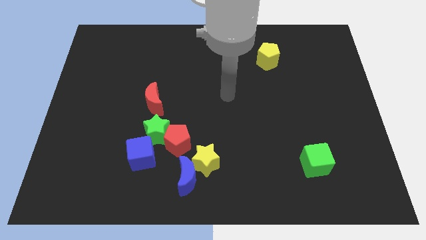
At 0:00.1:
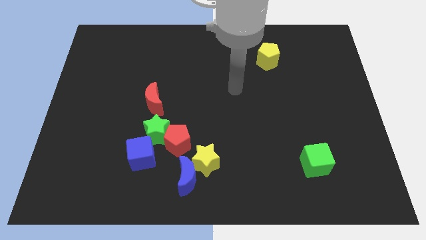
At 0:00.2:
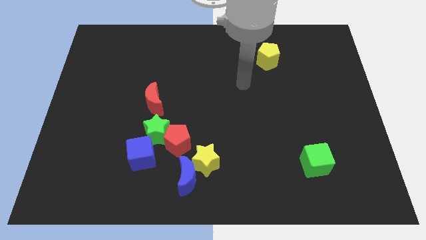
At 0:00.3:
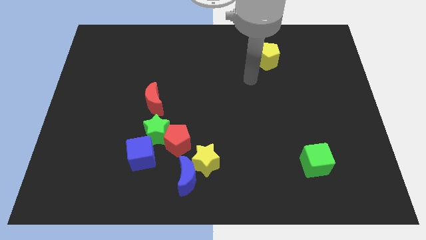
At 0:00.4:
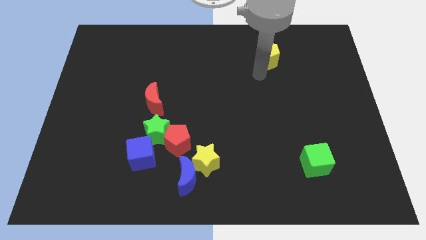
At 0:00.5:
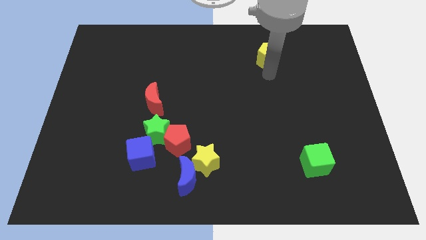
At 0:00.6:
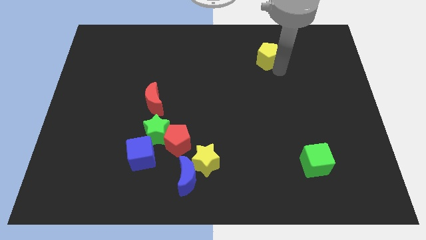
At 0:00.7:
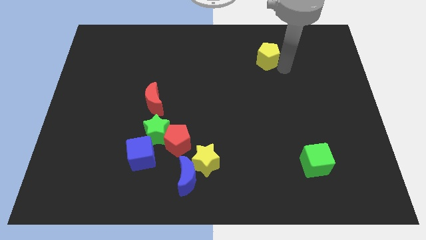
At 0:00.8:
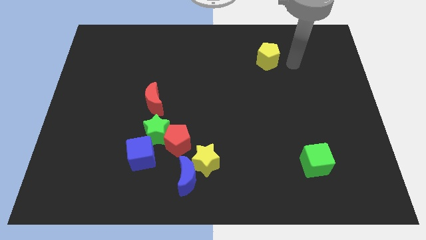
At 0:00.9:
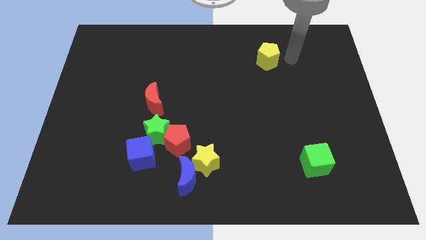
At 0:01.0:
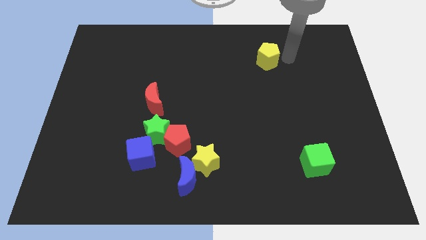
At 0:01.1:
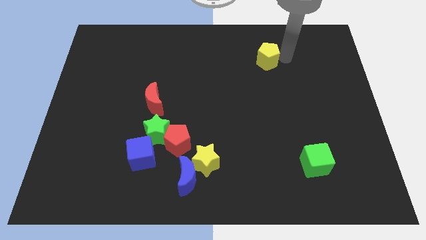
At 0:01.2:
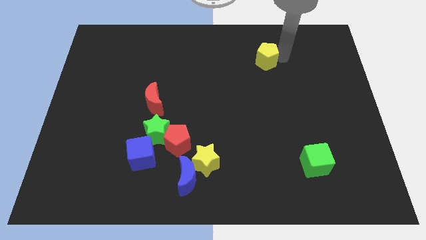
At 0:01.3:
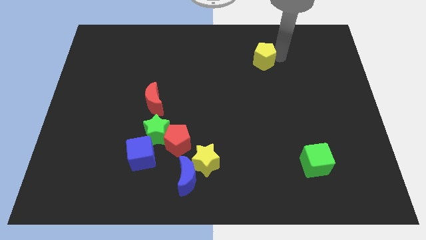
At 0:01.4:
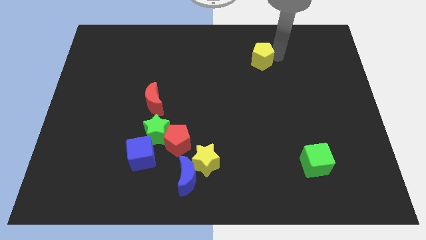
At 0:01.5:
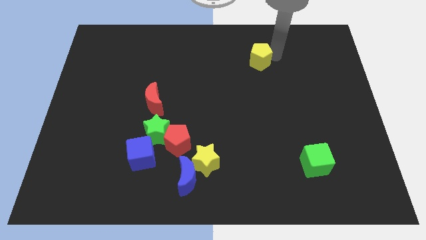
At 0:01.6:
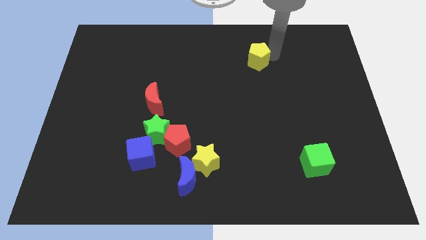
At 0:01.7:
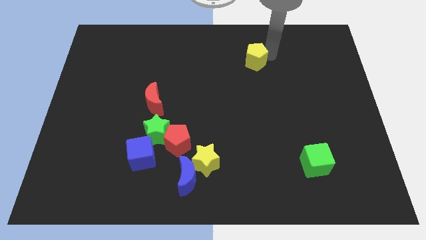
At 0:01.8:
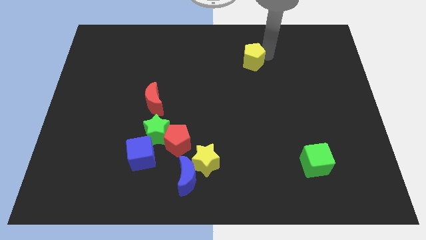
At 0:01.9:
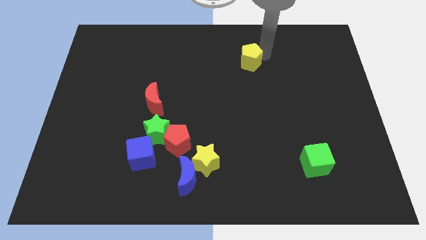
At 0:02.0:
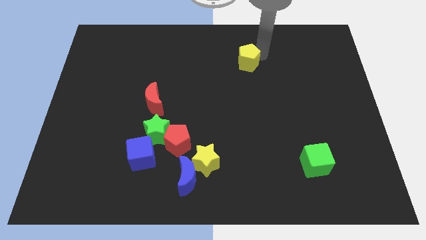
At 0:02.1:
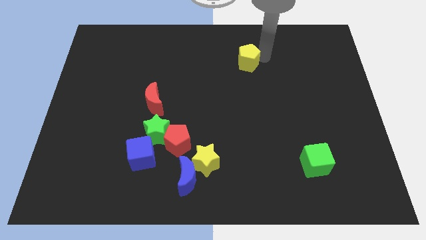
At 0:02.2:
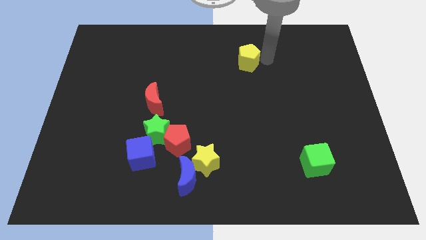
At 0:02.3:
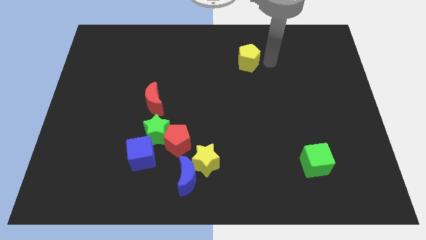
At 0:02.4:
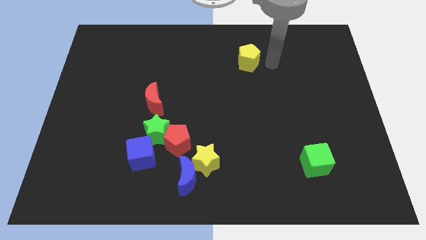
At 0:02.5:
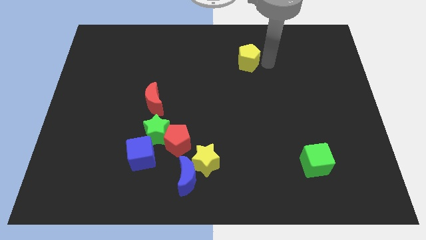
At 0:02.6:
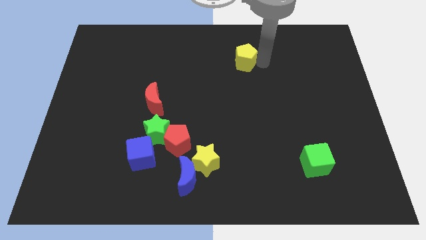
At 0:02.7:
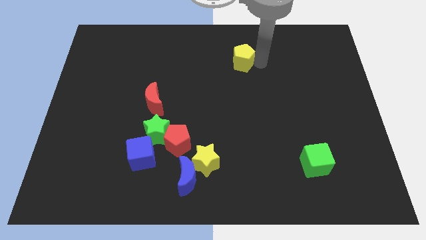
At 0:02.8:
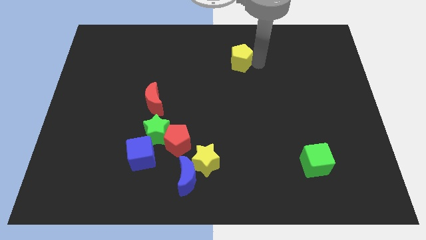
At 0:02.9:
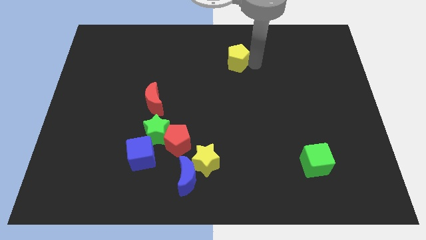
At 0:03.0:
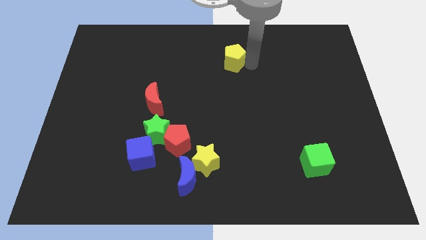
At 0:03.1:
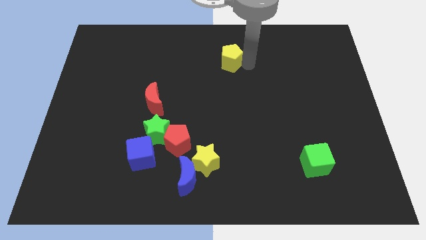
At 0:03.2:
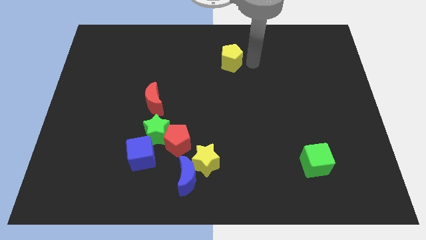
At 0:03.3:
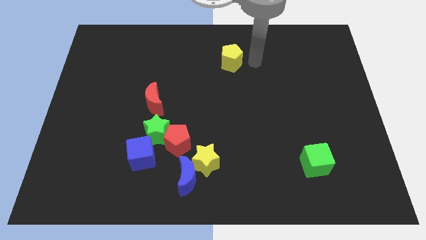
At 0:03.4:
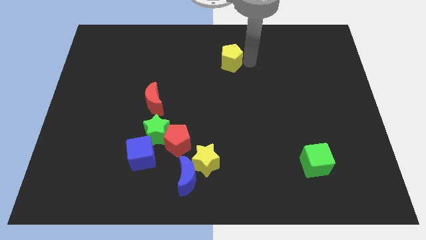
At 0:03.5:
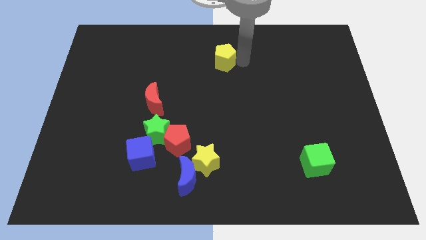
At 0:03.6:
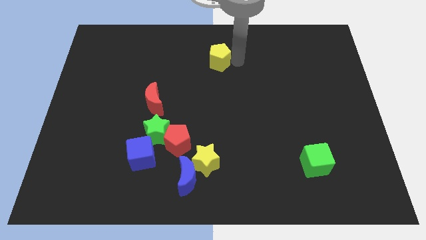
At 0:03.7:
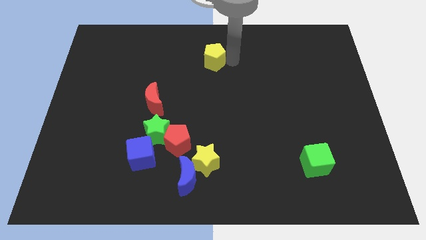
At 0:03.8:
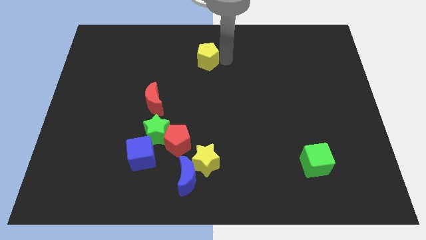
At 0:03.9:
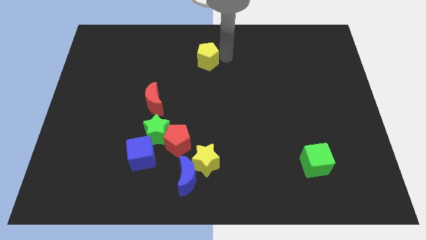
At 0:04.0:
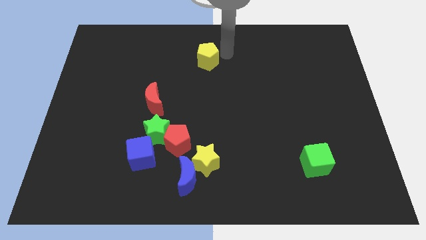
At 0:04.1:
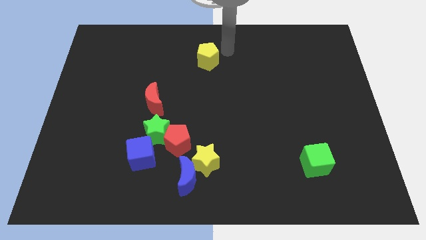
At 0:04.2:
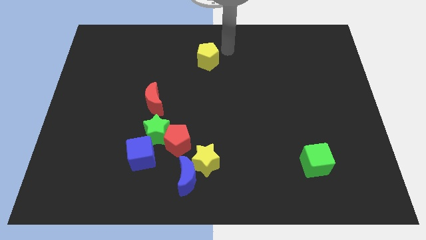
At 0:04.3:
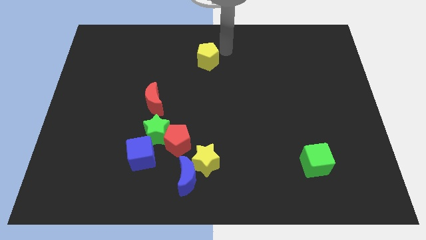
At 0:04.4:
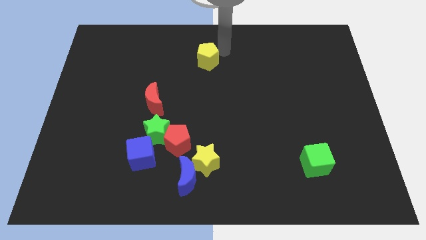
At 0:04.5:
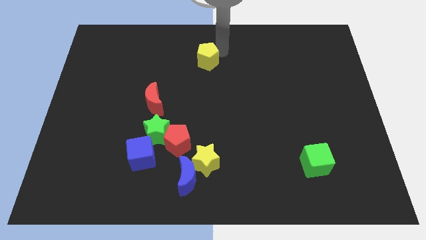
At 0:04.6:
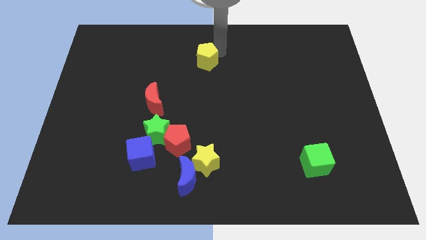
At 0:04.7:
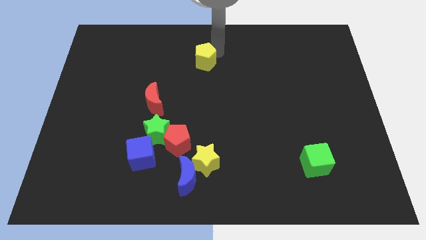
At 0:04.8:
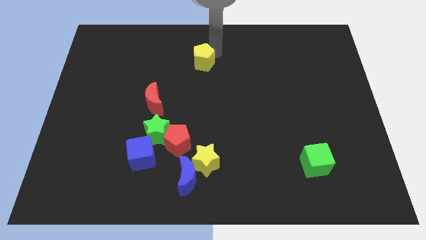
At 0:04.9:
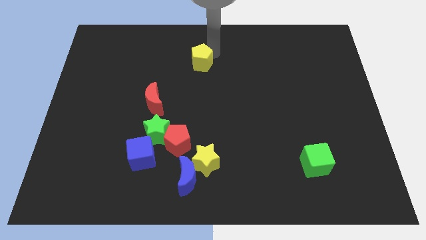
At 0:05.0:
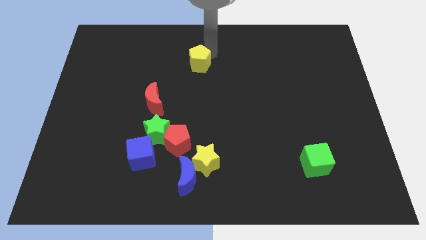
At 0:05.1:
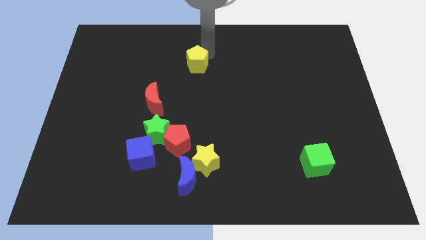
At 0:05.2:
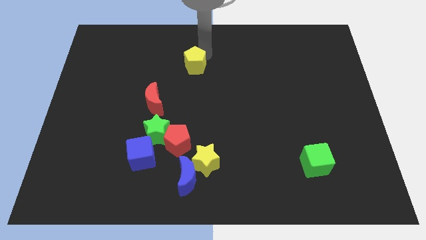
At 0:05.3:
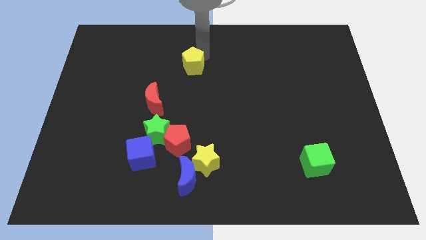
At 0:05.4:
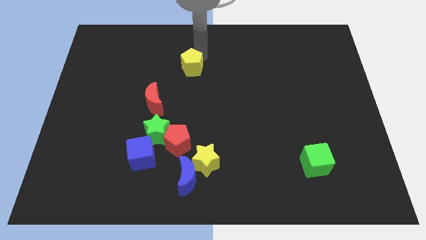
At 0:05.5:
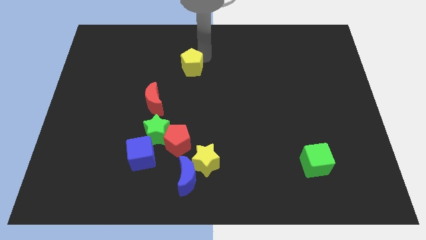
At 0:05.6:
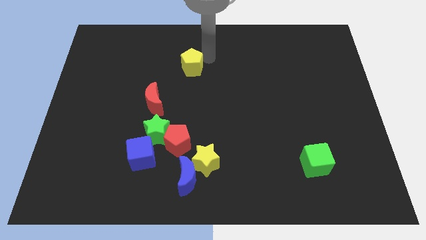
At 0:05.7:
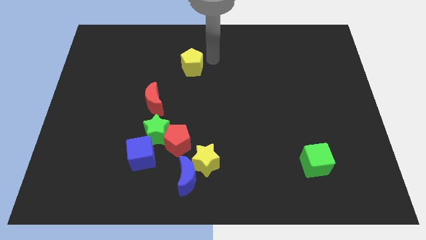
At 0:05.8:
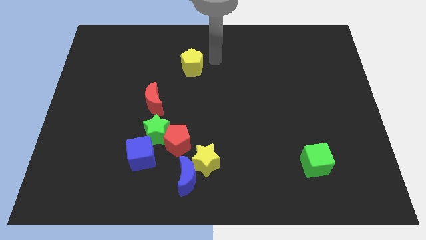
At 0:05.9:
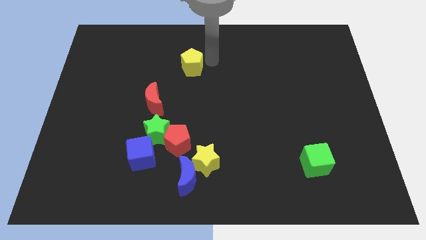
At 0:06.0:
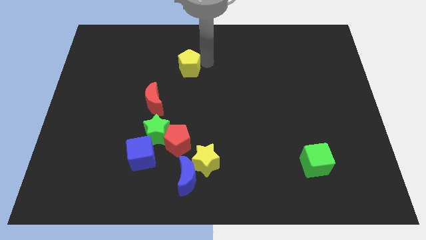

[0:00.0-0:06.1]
push the yellow pentagon left

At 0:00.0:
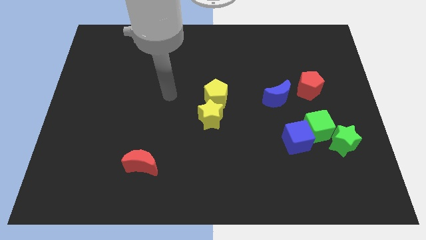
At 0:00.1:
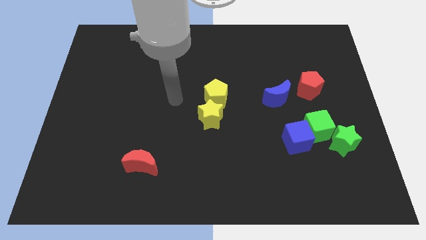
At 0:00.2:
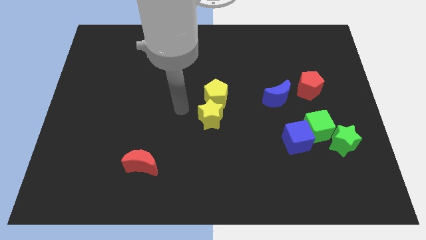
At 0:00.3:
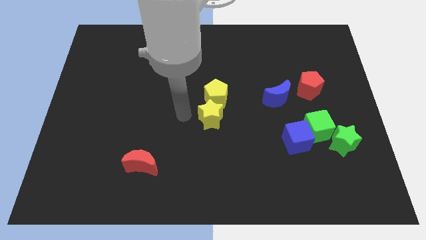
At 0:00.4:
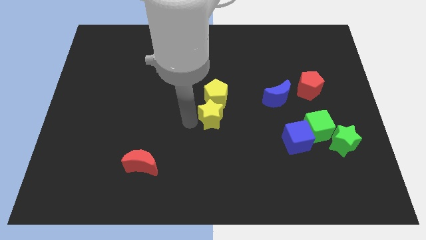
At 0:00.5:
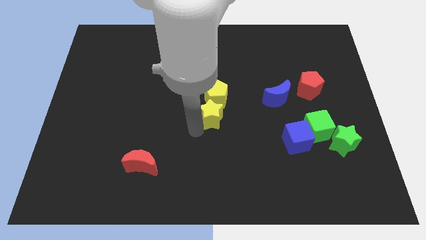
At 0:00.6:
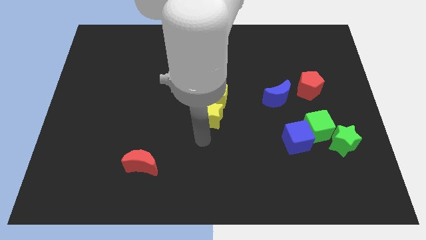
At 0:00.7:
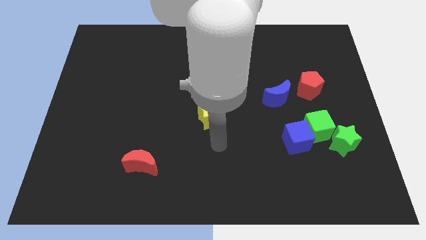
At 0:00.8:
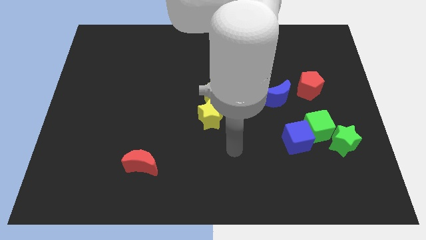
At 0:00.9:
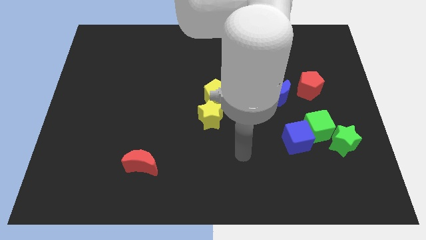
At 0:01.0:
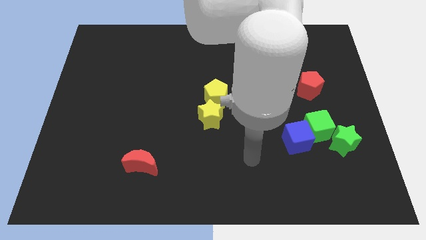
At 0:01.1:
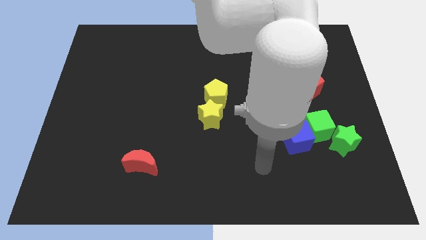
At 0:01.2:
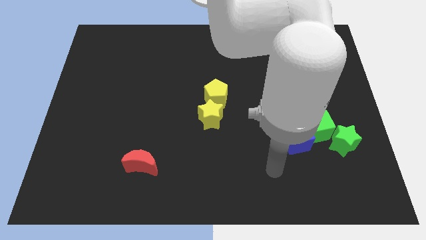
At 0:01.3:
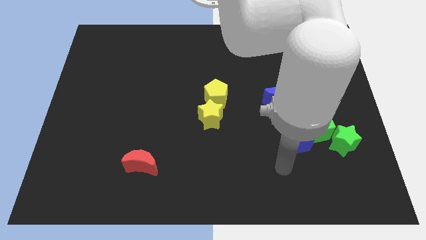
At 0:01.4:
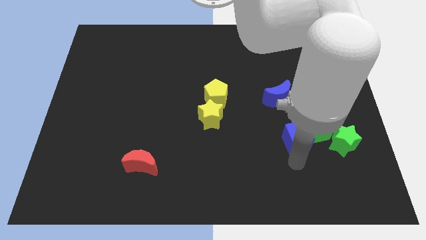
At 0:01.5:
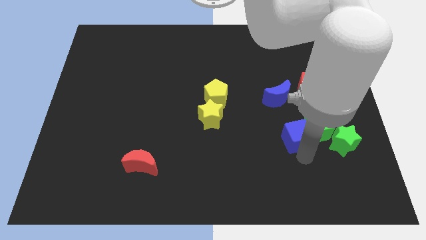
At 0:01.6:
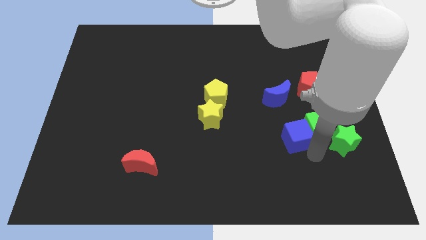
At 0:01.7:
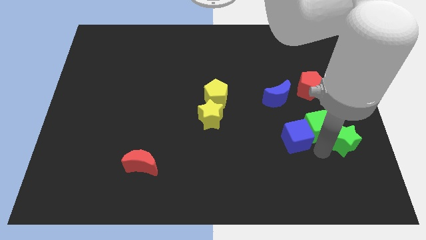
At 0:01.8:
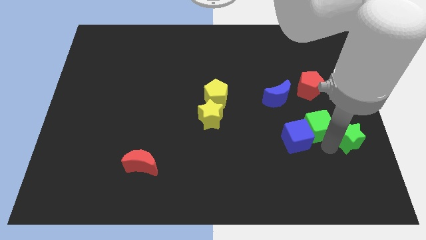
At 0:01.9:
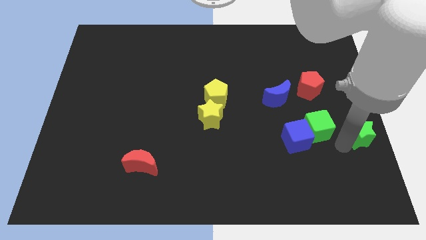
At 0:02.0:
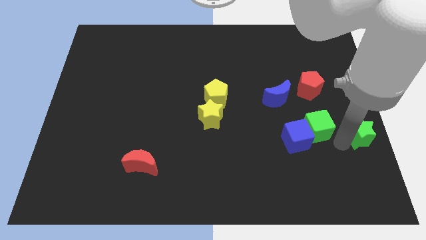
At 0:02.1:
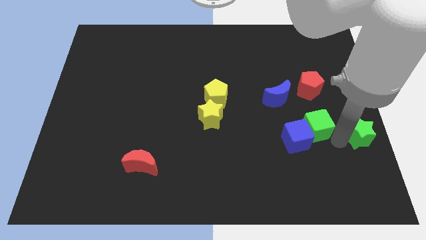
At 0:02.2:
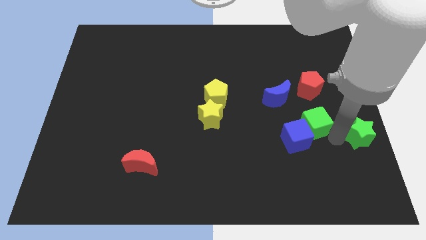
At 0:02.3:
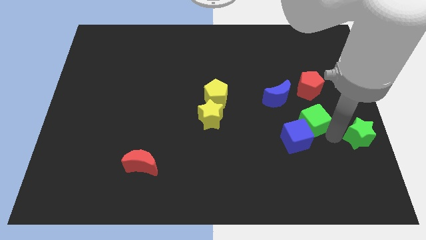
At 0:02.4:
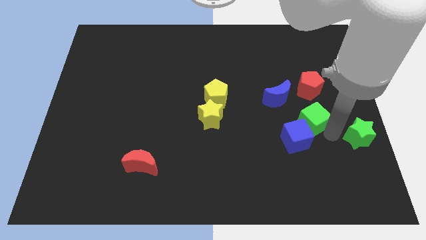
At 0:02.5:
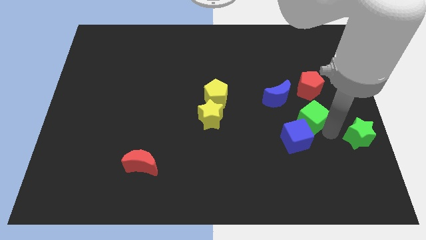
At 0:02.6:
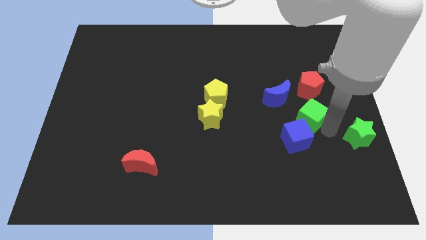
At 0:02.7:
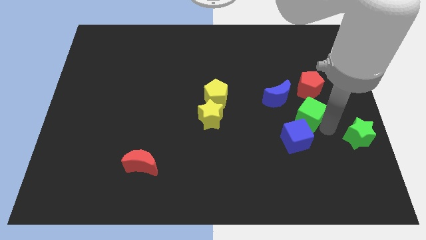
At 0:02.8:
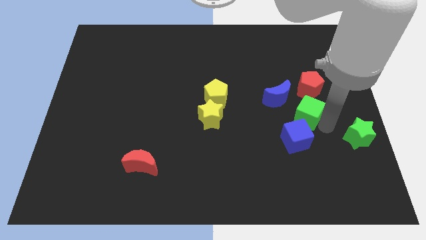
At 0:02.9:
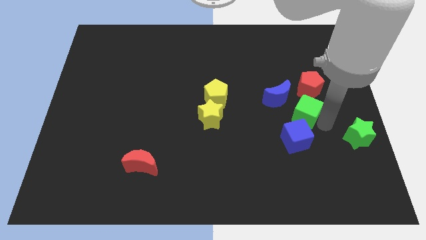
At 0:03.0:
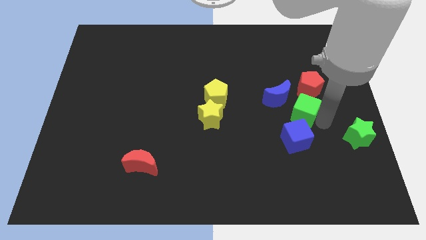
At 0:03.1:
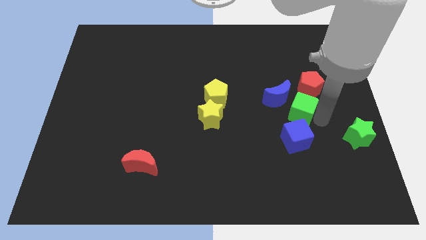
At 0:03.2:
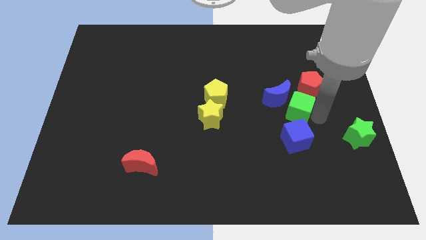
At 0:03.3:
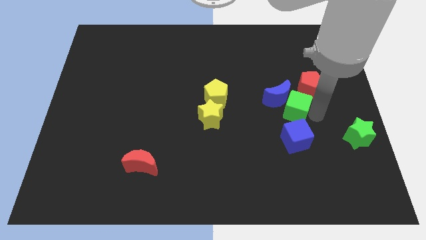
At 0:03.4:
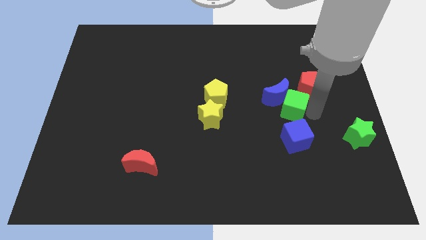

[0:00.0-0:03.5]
slide the green cube diagonally upwards and to the left slightly
